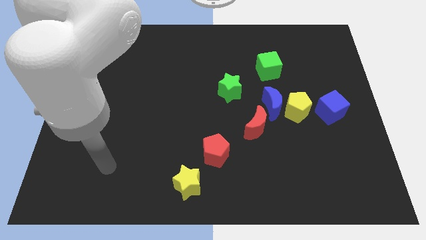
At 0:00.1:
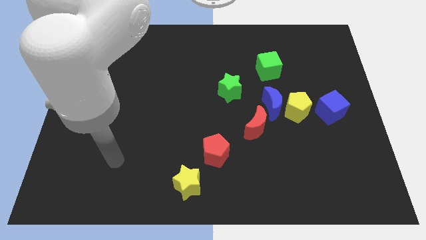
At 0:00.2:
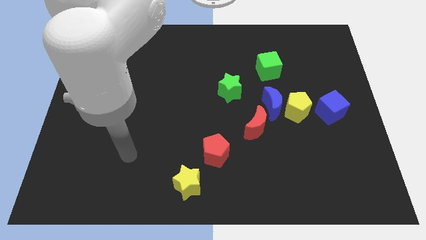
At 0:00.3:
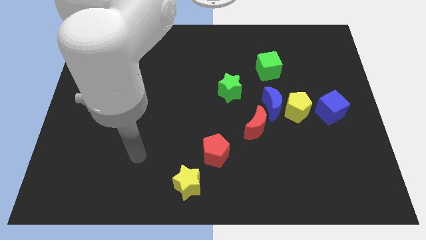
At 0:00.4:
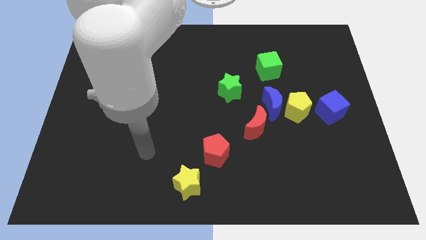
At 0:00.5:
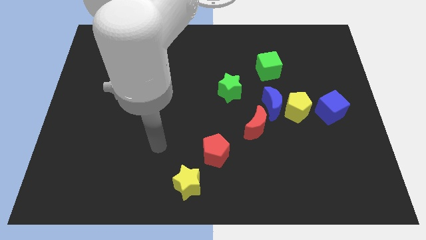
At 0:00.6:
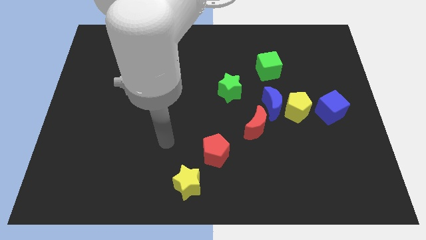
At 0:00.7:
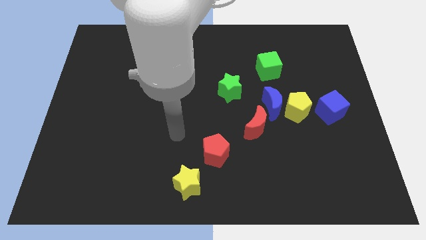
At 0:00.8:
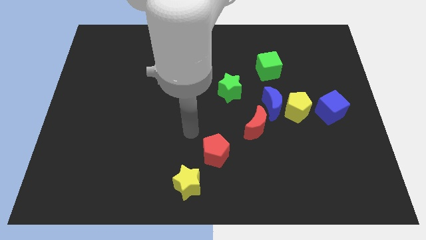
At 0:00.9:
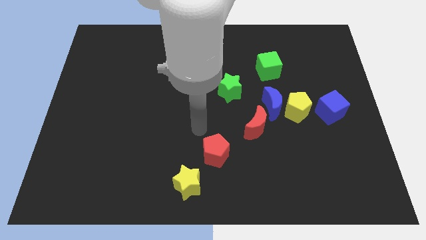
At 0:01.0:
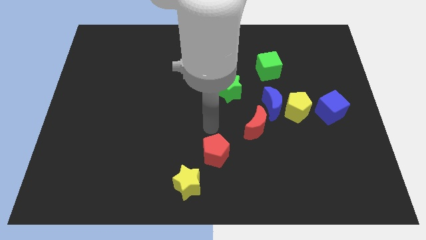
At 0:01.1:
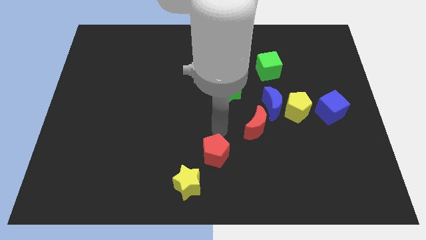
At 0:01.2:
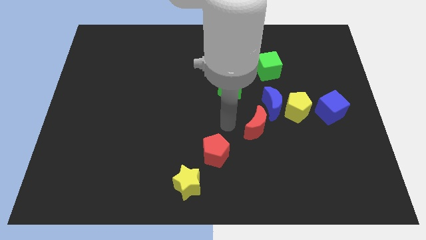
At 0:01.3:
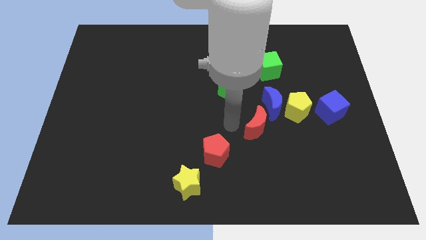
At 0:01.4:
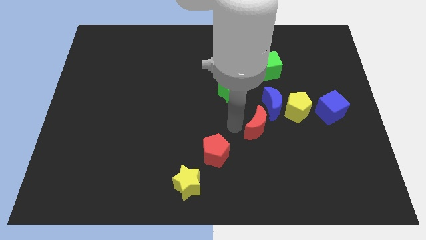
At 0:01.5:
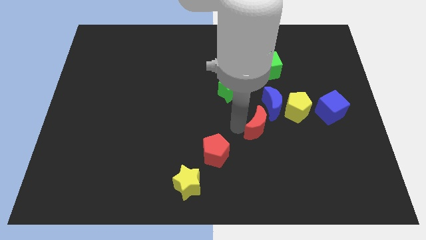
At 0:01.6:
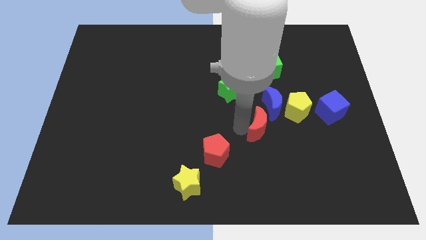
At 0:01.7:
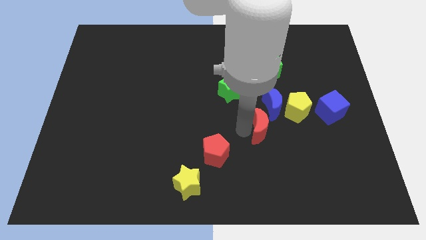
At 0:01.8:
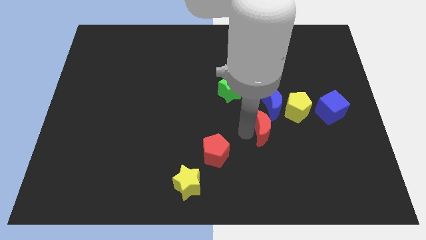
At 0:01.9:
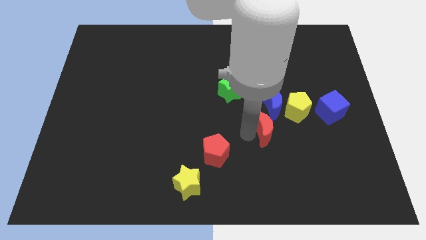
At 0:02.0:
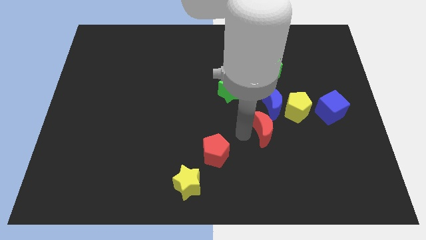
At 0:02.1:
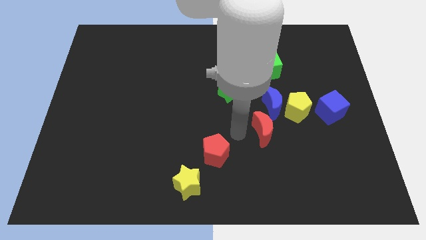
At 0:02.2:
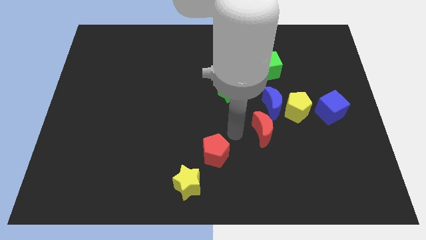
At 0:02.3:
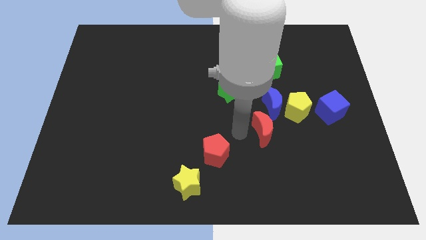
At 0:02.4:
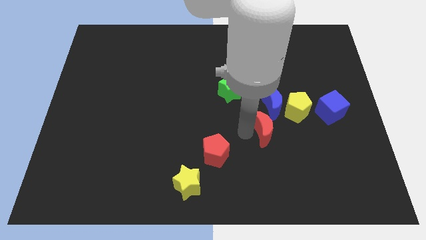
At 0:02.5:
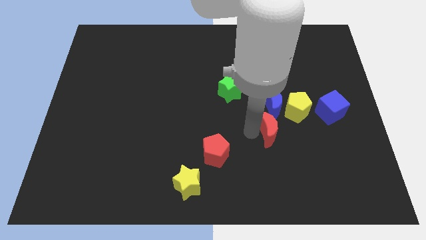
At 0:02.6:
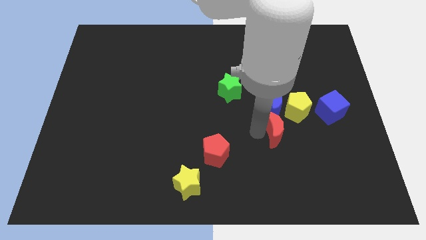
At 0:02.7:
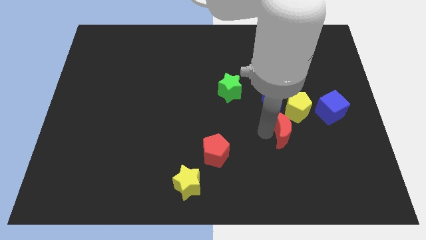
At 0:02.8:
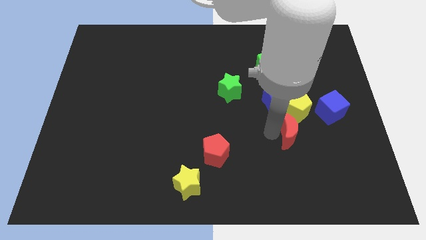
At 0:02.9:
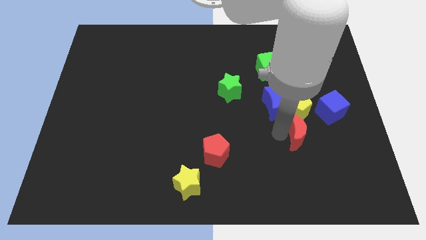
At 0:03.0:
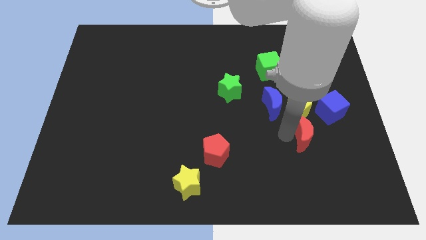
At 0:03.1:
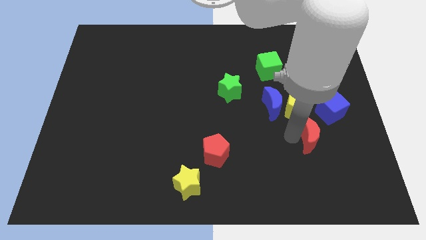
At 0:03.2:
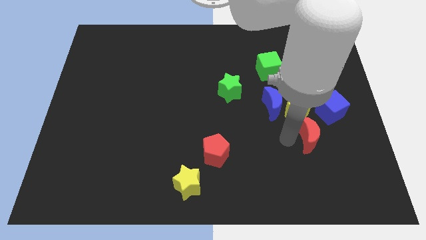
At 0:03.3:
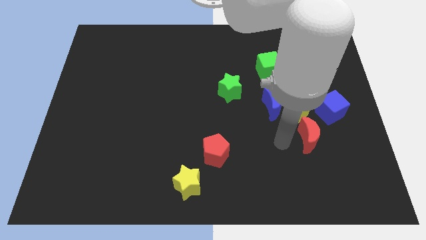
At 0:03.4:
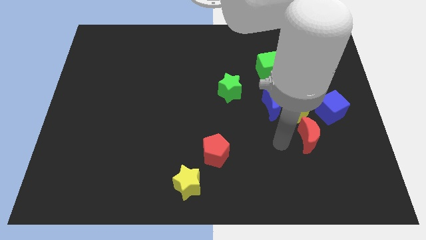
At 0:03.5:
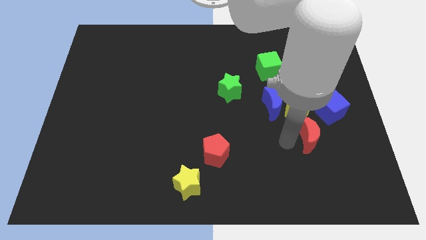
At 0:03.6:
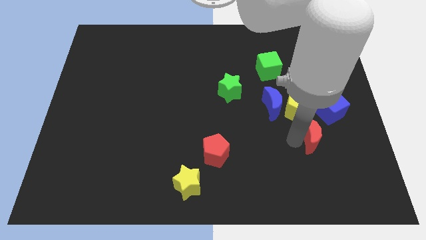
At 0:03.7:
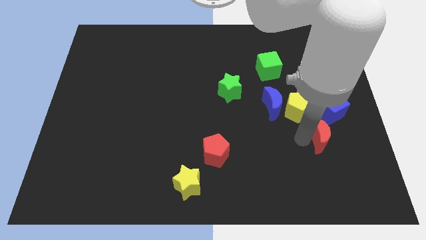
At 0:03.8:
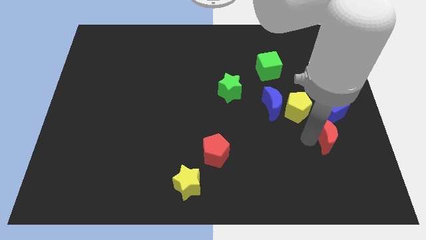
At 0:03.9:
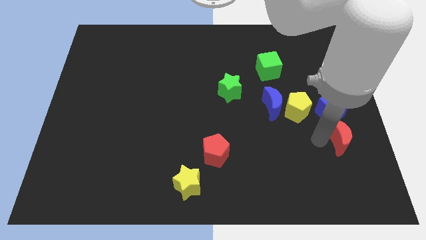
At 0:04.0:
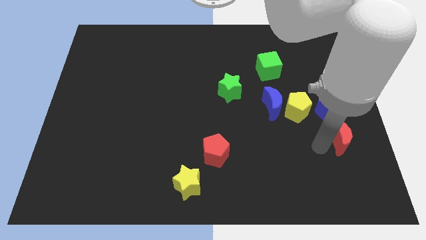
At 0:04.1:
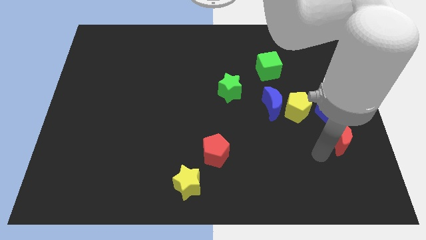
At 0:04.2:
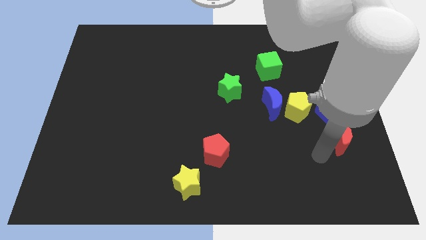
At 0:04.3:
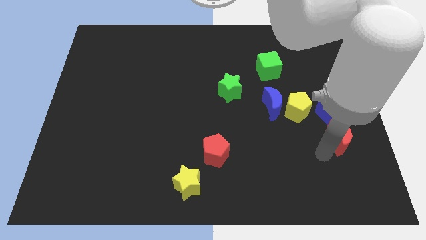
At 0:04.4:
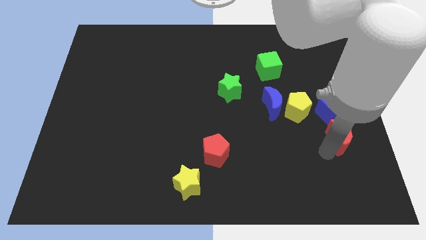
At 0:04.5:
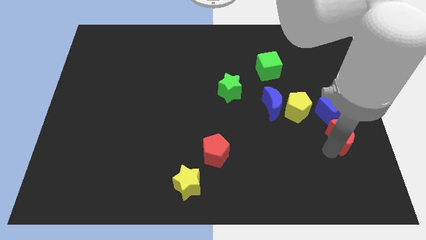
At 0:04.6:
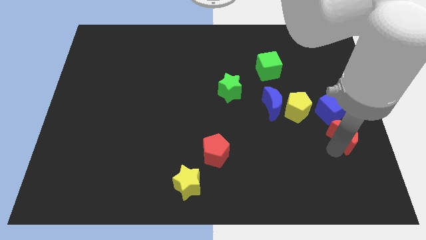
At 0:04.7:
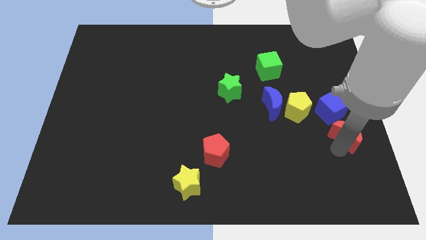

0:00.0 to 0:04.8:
move the red moon to the center right

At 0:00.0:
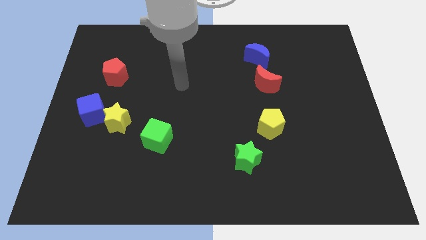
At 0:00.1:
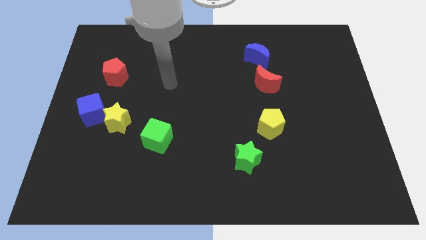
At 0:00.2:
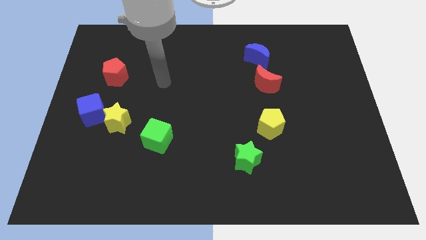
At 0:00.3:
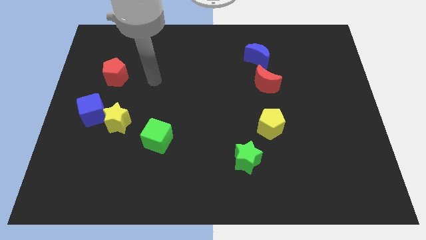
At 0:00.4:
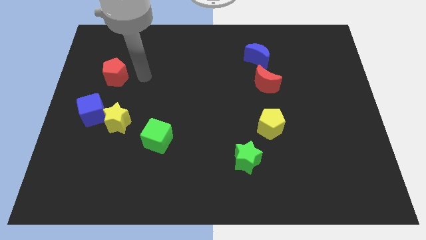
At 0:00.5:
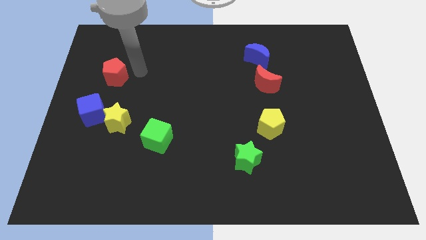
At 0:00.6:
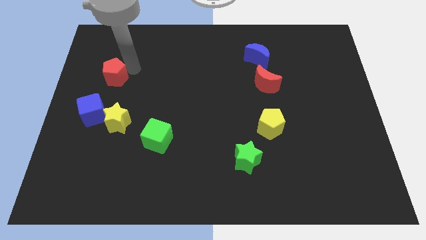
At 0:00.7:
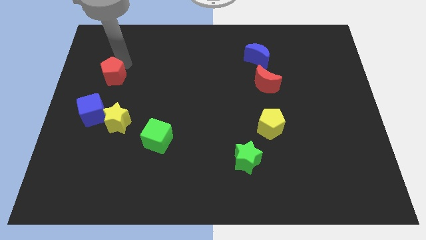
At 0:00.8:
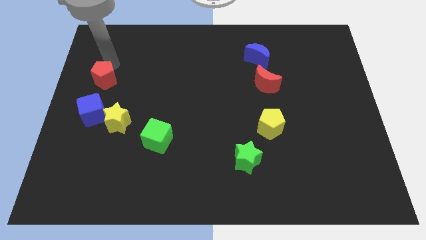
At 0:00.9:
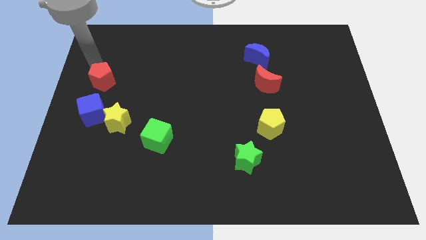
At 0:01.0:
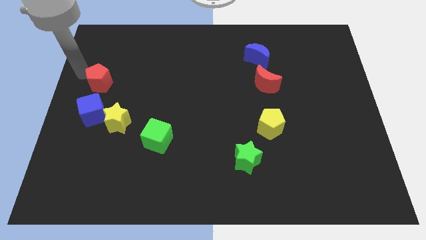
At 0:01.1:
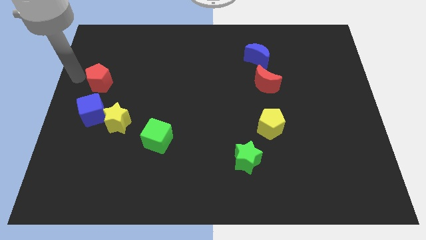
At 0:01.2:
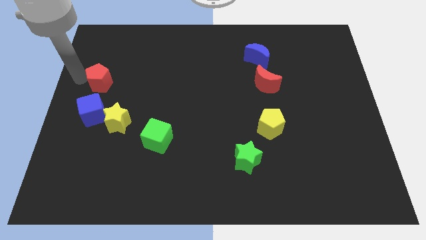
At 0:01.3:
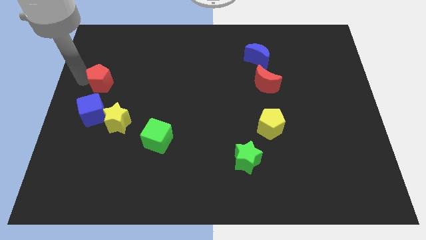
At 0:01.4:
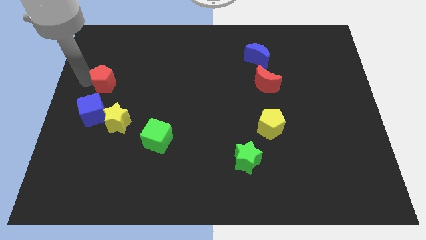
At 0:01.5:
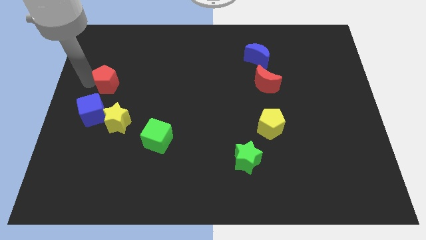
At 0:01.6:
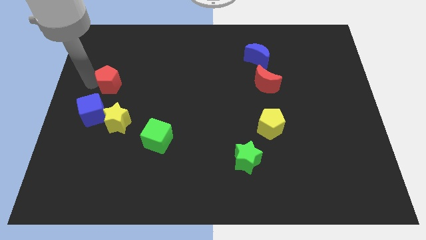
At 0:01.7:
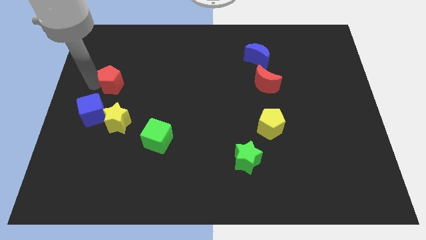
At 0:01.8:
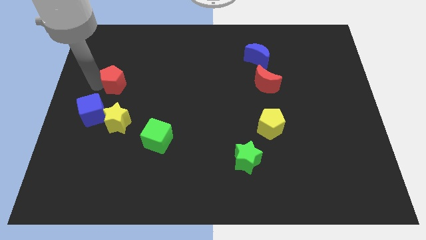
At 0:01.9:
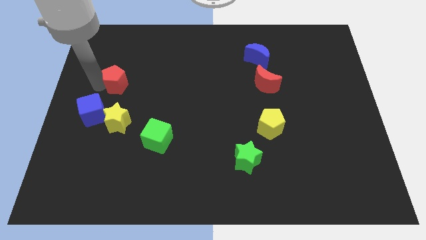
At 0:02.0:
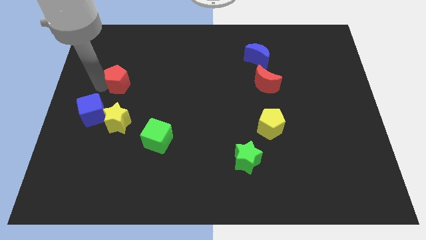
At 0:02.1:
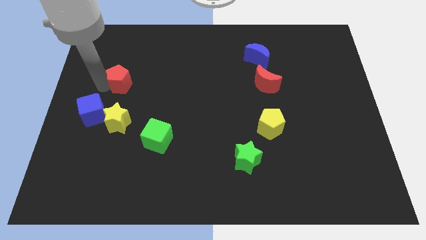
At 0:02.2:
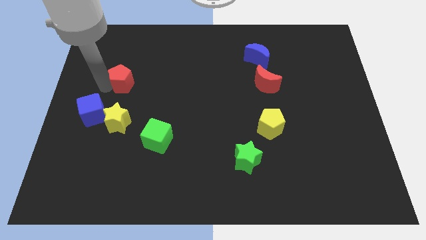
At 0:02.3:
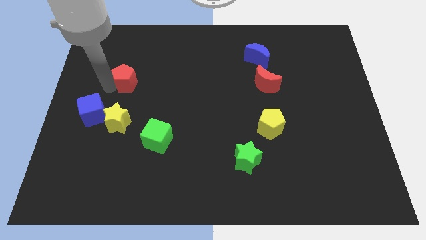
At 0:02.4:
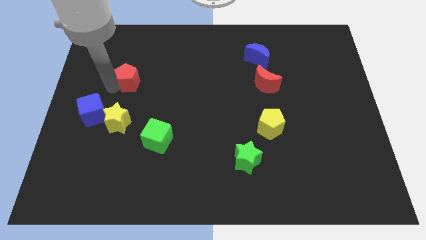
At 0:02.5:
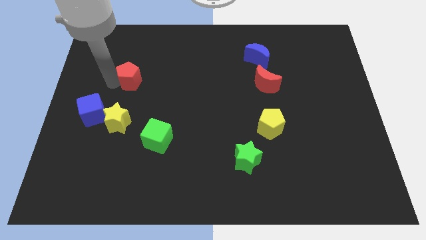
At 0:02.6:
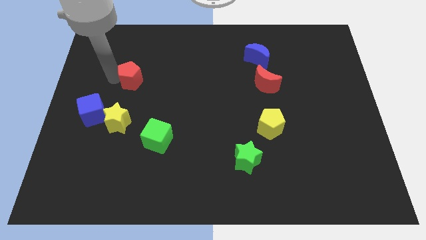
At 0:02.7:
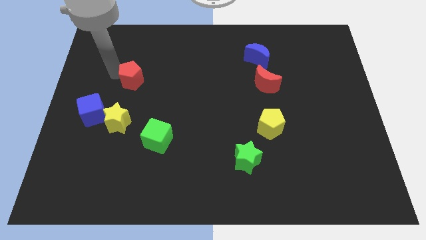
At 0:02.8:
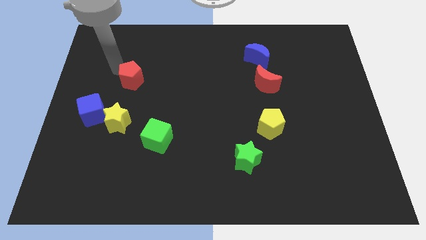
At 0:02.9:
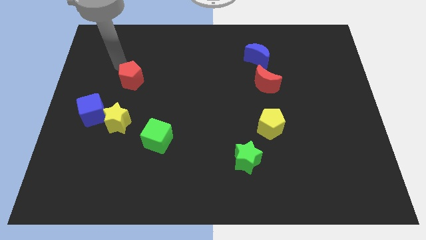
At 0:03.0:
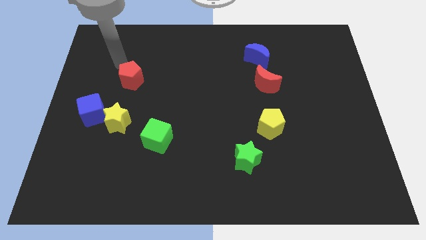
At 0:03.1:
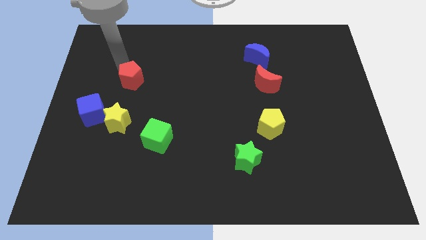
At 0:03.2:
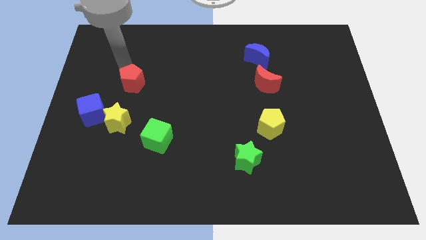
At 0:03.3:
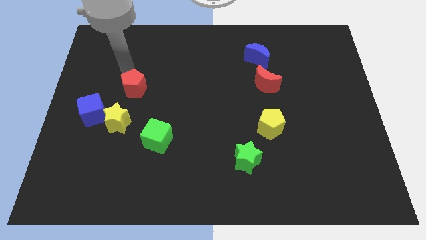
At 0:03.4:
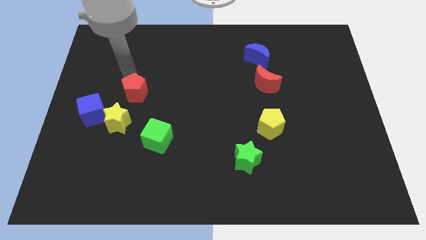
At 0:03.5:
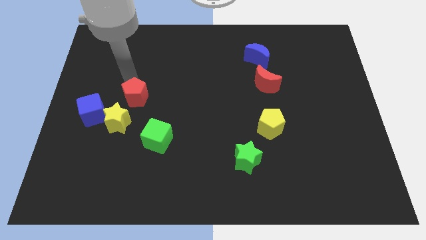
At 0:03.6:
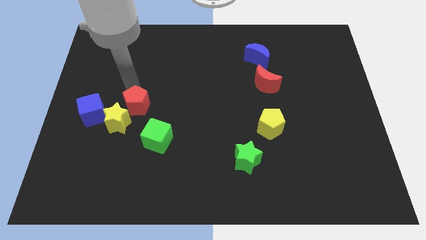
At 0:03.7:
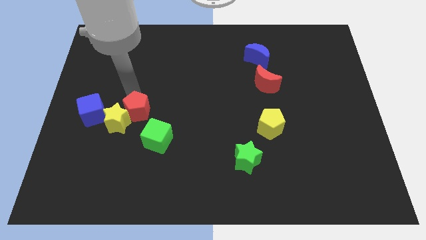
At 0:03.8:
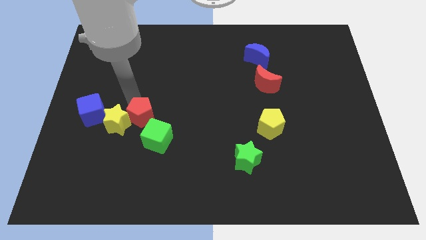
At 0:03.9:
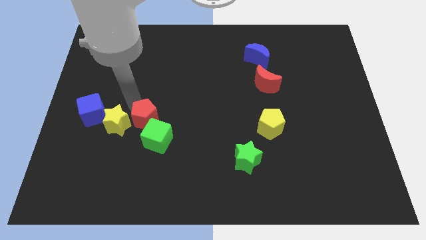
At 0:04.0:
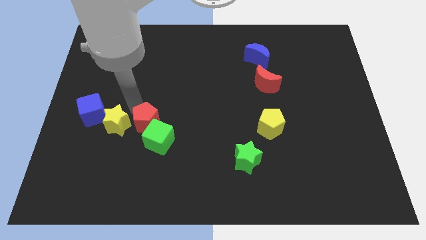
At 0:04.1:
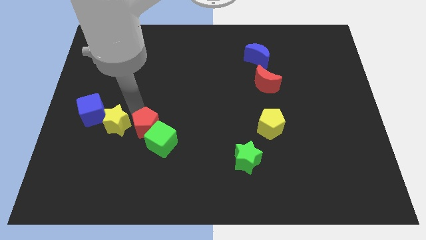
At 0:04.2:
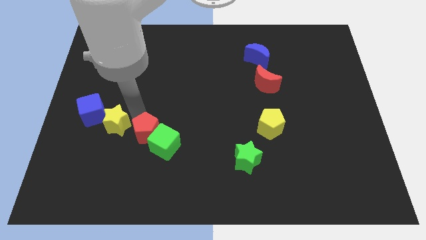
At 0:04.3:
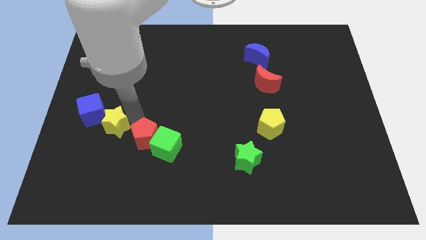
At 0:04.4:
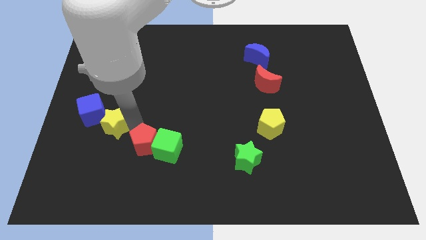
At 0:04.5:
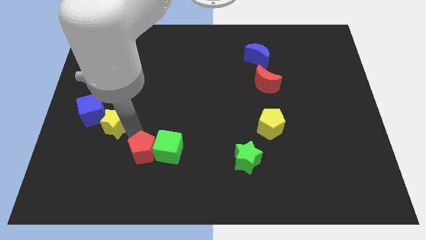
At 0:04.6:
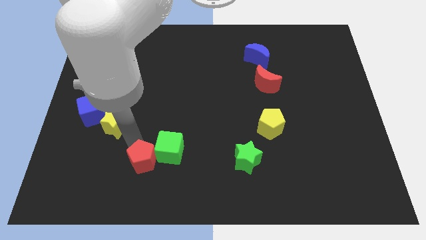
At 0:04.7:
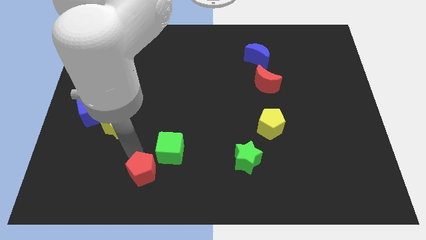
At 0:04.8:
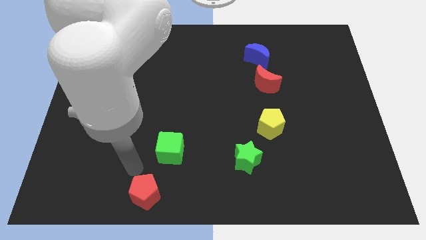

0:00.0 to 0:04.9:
slide the red pentagon to the bottom side
